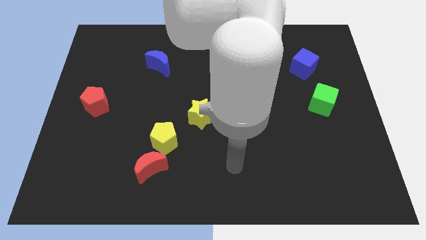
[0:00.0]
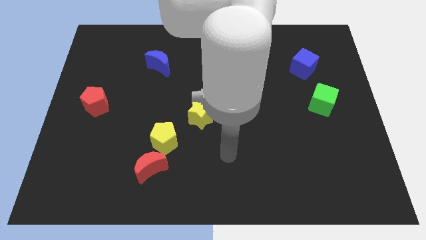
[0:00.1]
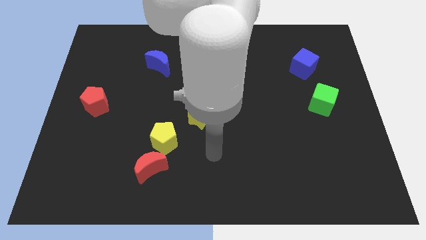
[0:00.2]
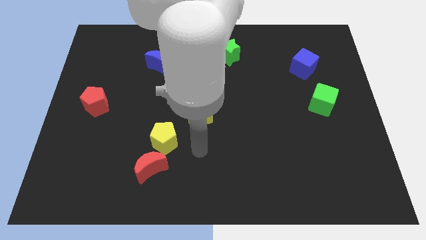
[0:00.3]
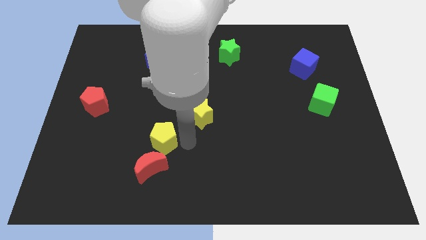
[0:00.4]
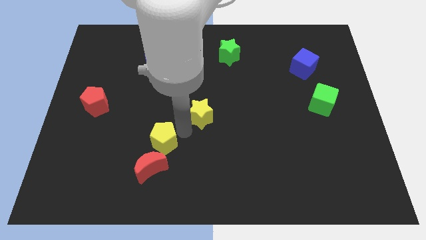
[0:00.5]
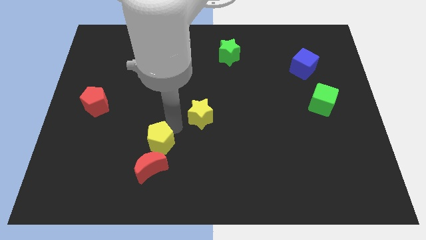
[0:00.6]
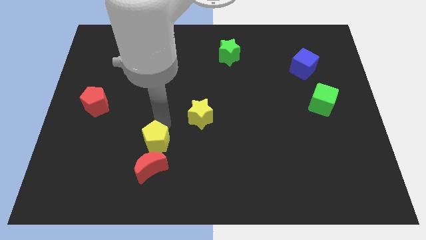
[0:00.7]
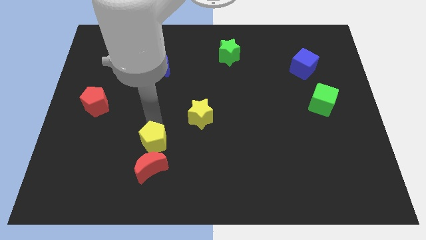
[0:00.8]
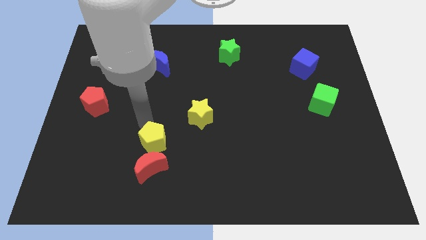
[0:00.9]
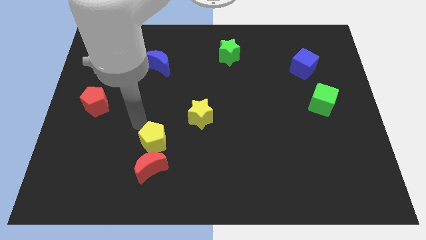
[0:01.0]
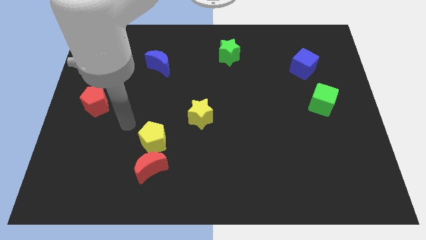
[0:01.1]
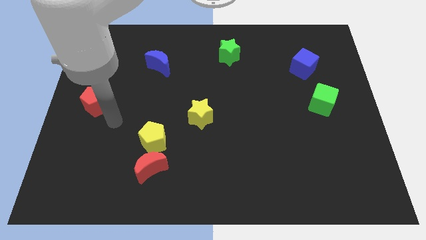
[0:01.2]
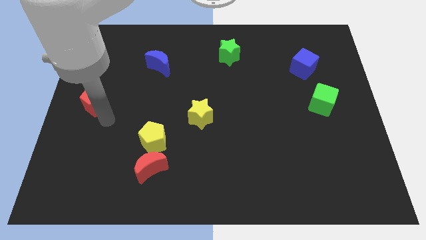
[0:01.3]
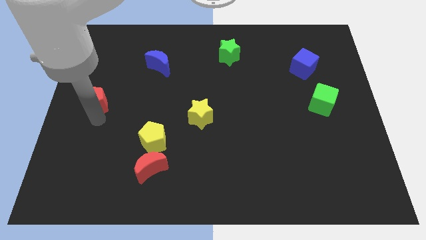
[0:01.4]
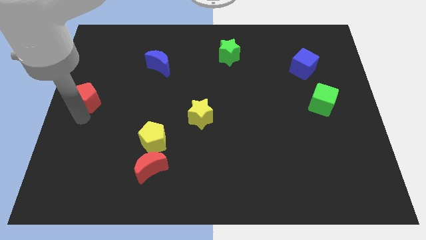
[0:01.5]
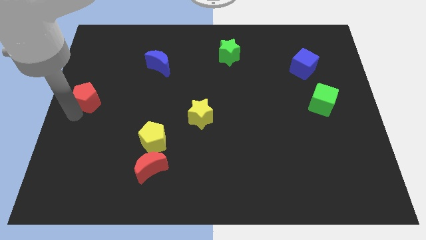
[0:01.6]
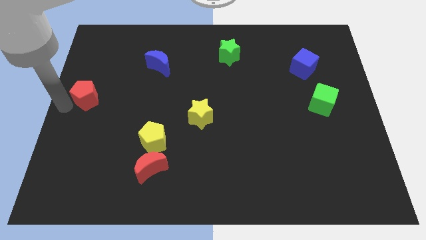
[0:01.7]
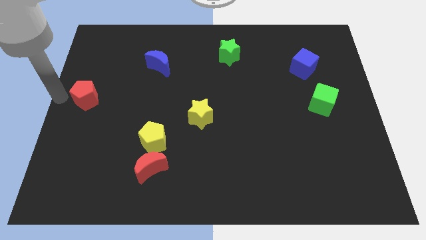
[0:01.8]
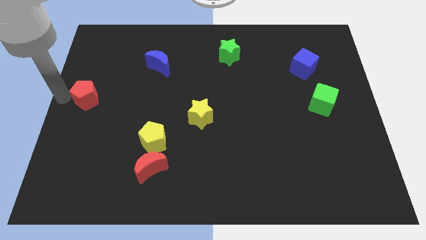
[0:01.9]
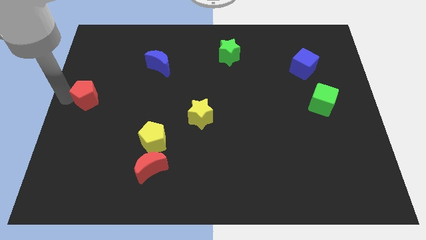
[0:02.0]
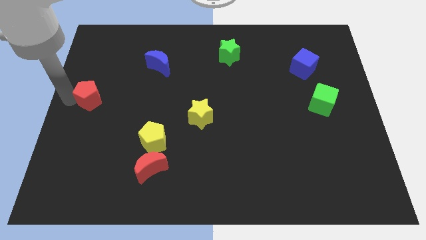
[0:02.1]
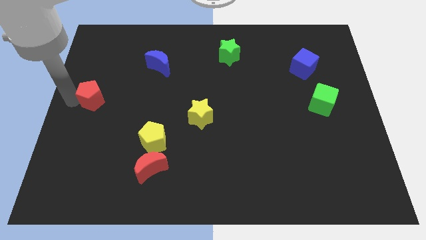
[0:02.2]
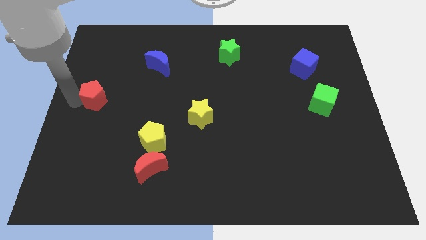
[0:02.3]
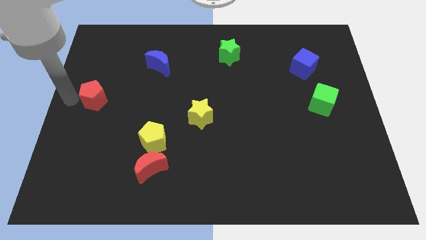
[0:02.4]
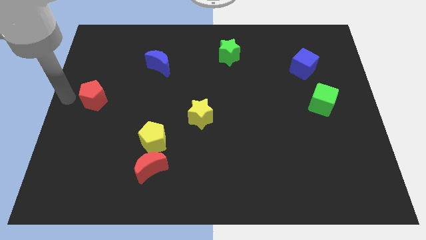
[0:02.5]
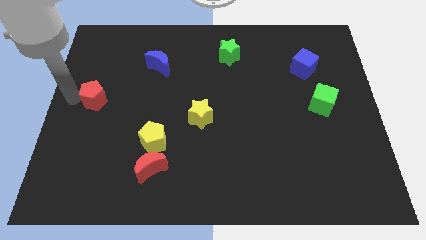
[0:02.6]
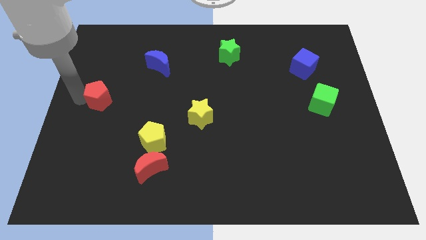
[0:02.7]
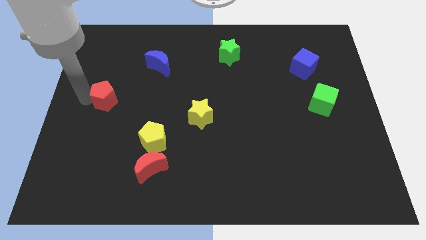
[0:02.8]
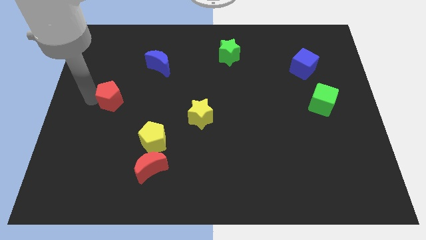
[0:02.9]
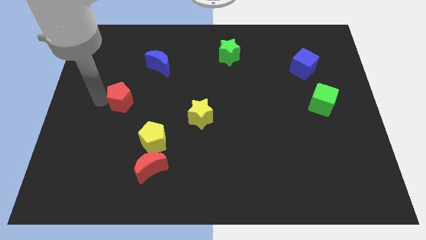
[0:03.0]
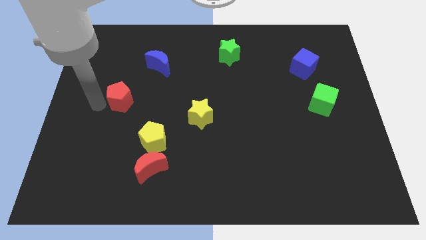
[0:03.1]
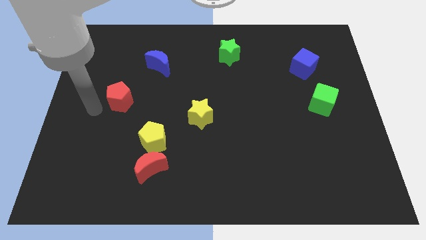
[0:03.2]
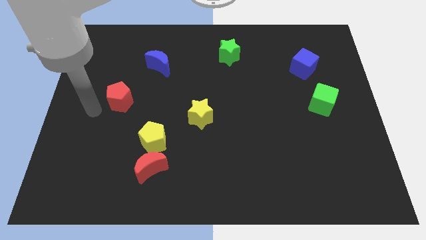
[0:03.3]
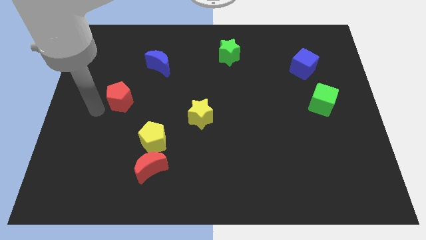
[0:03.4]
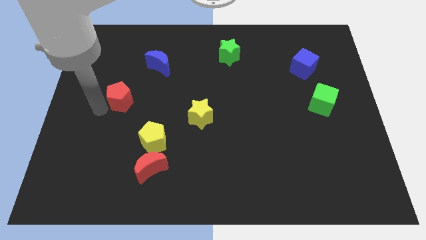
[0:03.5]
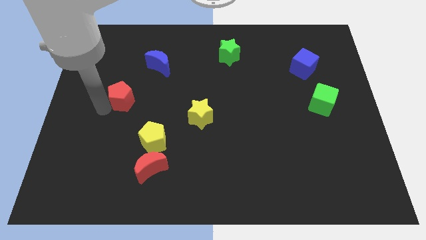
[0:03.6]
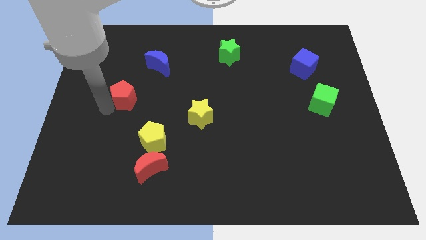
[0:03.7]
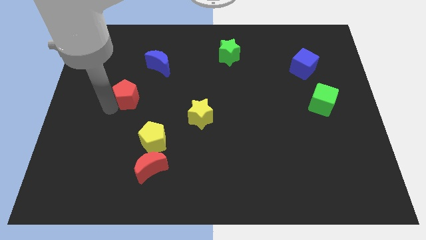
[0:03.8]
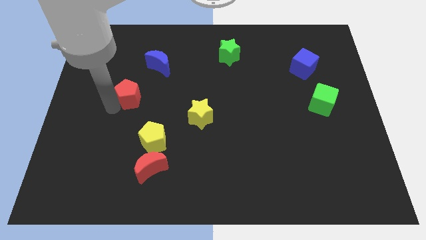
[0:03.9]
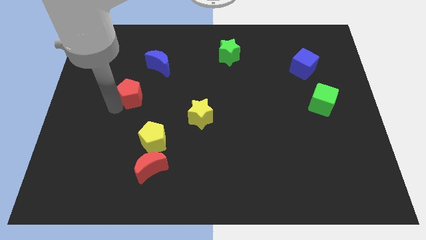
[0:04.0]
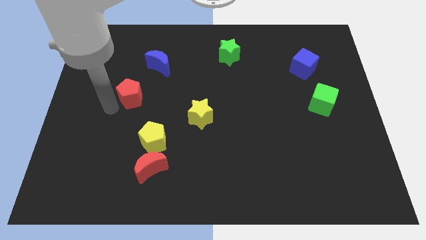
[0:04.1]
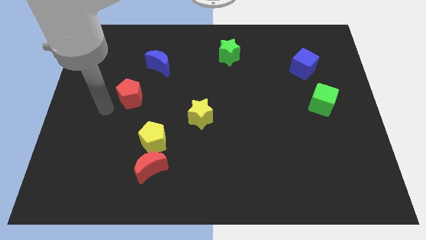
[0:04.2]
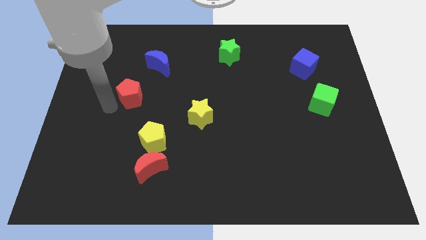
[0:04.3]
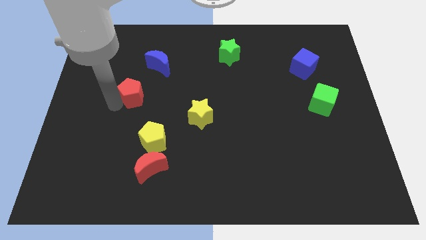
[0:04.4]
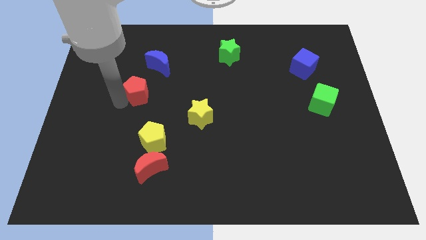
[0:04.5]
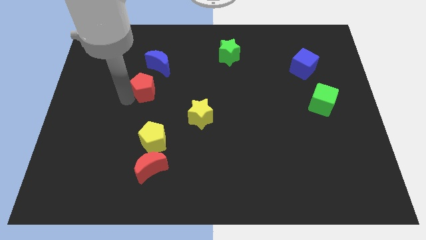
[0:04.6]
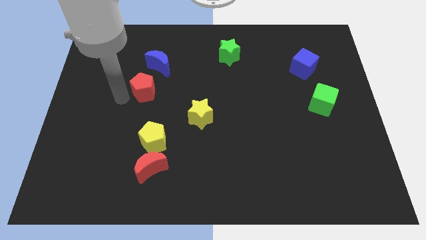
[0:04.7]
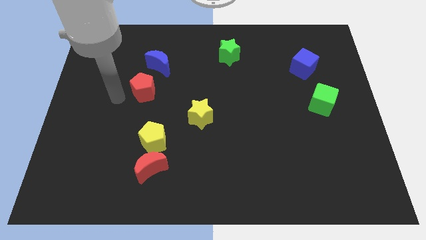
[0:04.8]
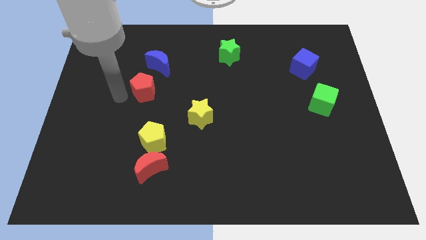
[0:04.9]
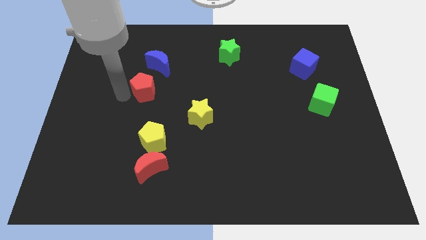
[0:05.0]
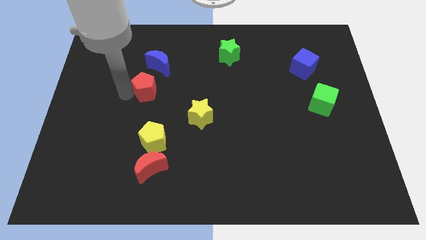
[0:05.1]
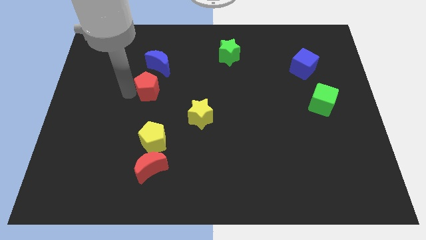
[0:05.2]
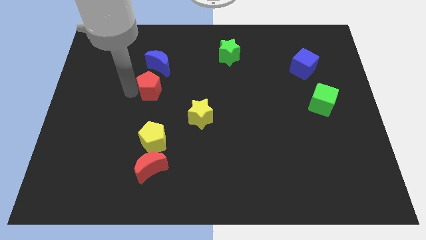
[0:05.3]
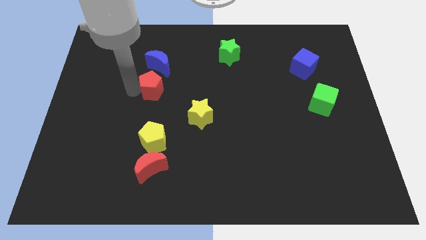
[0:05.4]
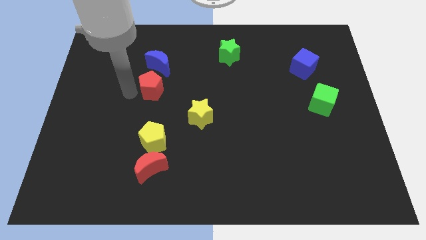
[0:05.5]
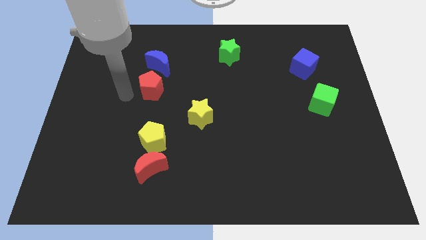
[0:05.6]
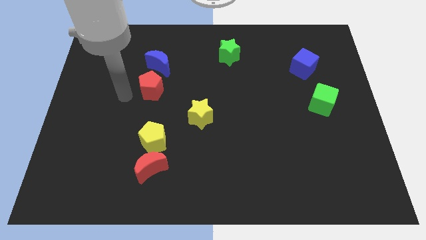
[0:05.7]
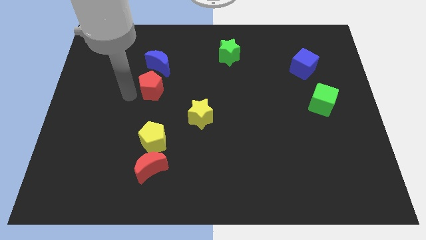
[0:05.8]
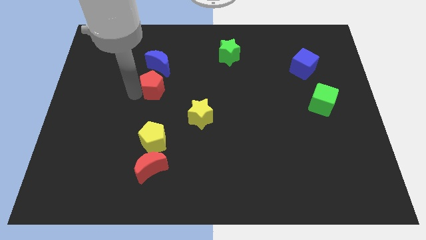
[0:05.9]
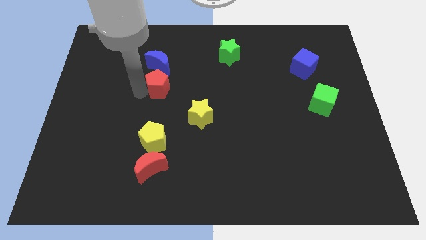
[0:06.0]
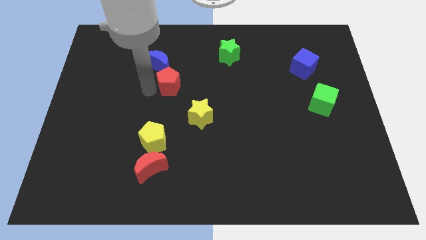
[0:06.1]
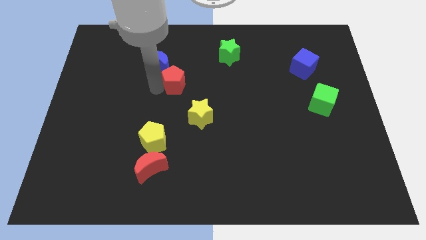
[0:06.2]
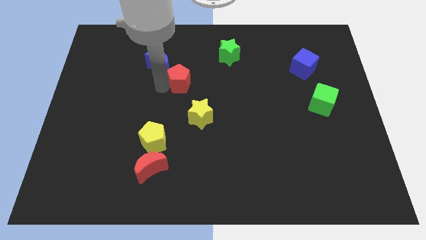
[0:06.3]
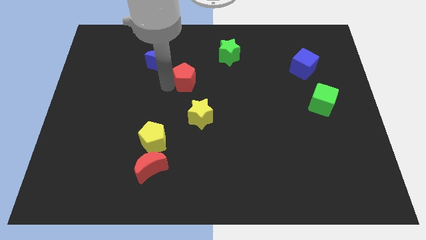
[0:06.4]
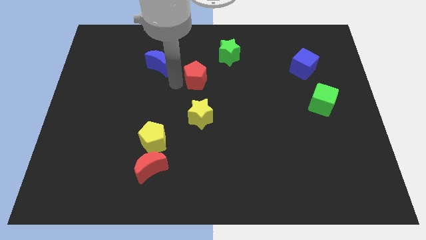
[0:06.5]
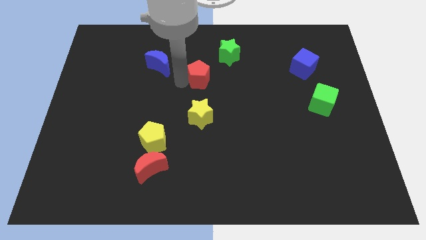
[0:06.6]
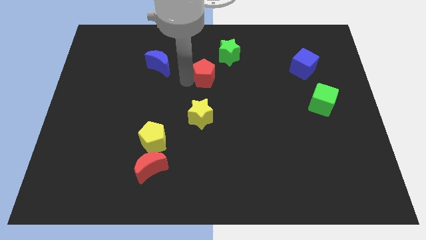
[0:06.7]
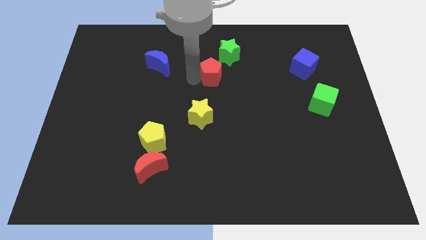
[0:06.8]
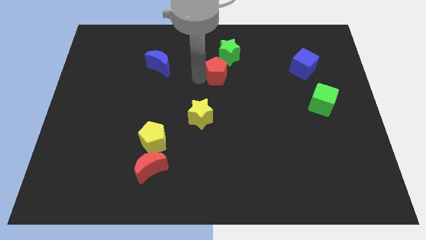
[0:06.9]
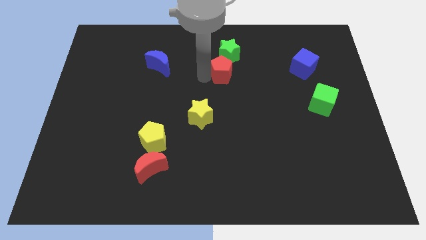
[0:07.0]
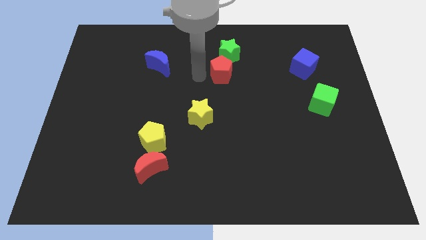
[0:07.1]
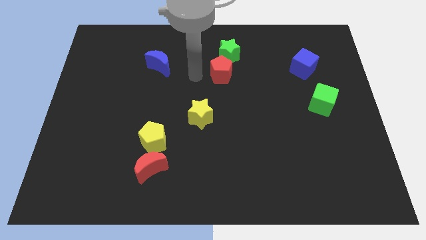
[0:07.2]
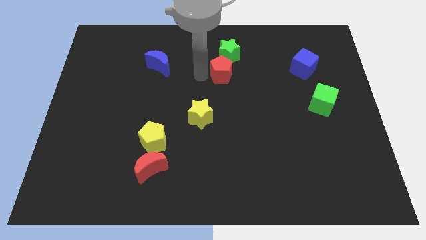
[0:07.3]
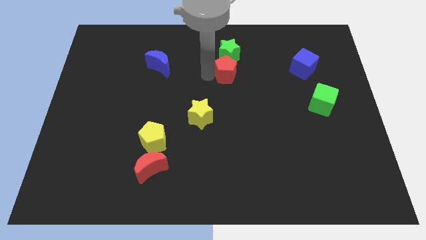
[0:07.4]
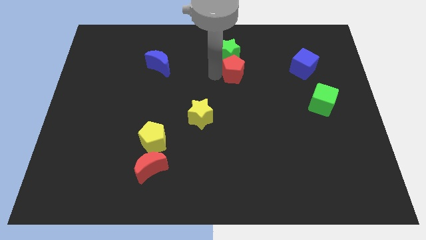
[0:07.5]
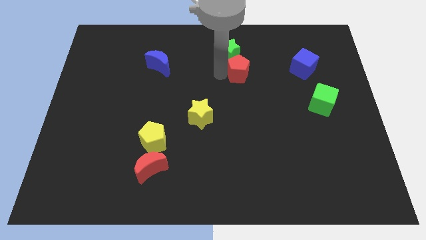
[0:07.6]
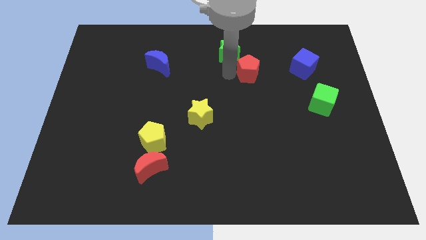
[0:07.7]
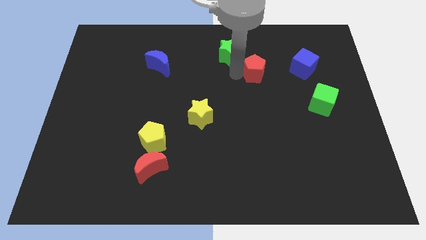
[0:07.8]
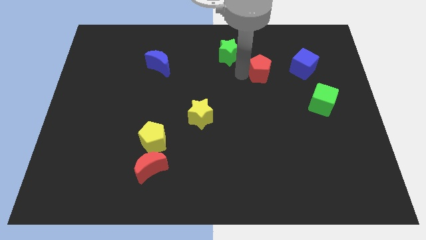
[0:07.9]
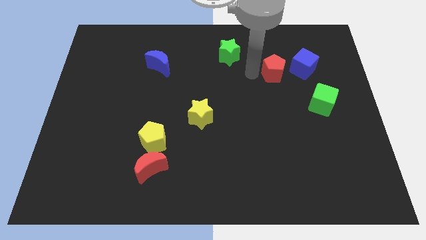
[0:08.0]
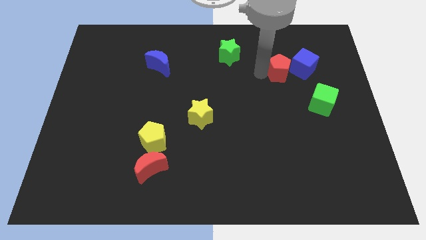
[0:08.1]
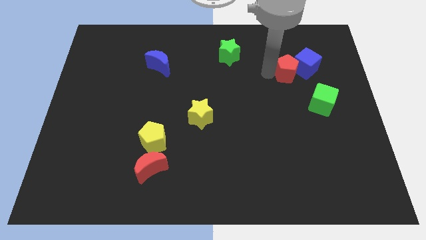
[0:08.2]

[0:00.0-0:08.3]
move the red pentagon next to the blue cube
